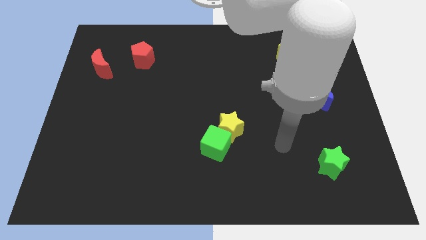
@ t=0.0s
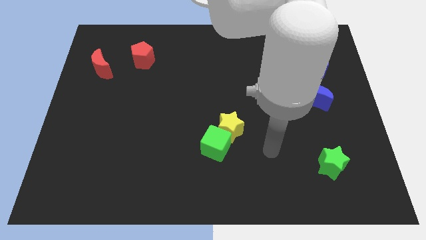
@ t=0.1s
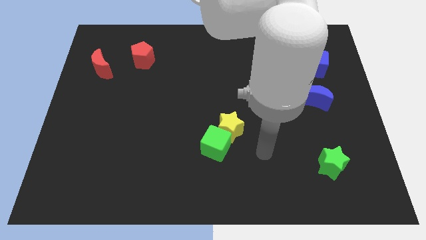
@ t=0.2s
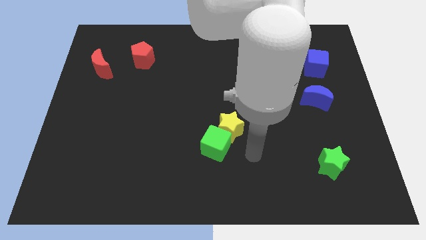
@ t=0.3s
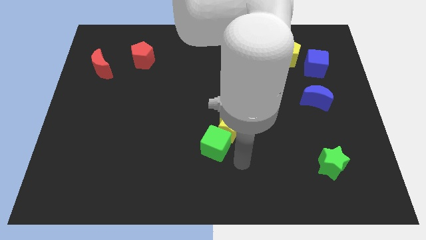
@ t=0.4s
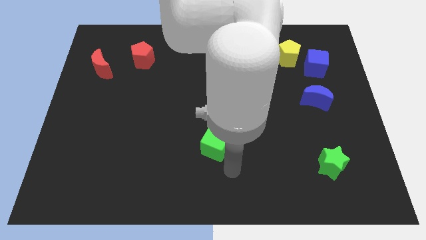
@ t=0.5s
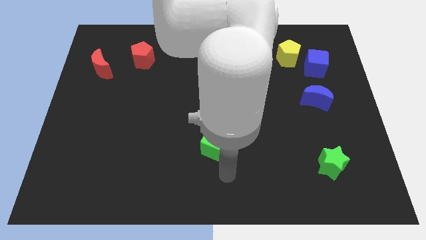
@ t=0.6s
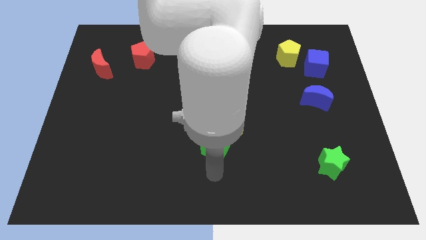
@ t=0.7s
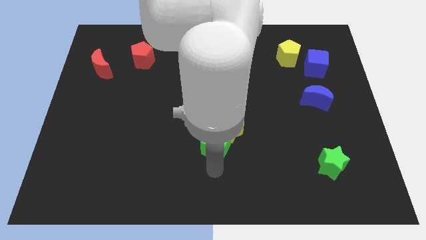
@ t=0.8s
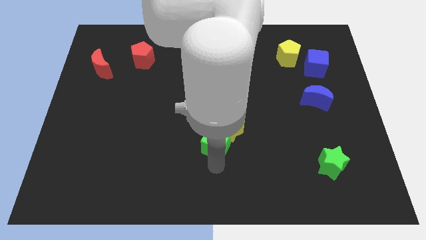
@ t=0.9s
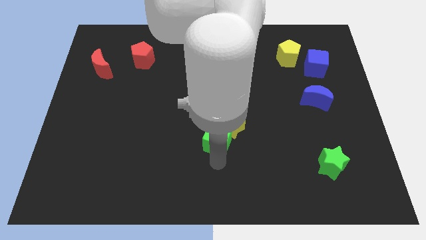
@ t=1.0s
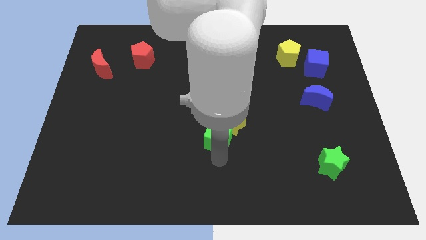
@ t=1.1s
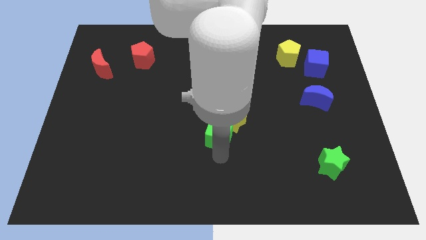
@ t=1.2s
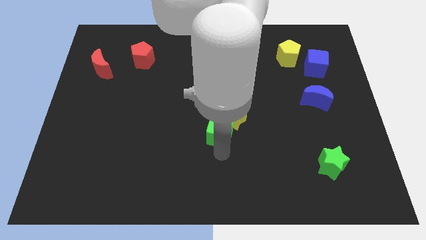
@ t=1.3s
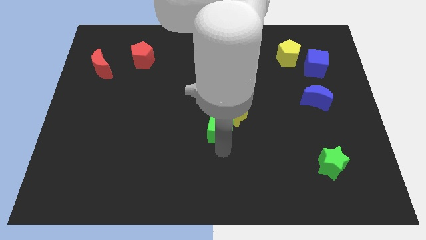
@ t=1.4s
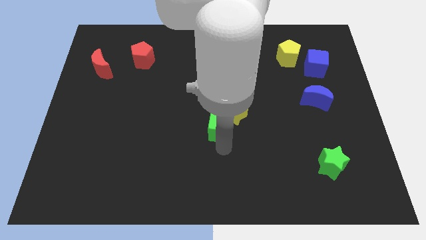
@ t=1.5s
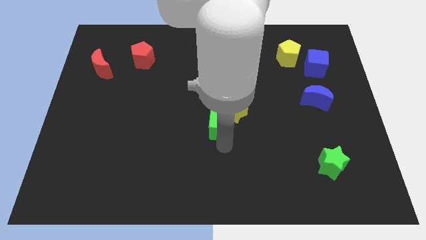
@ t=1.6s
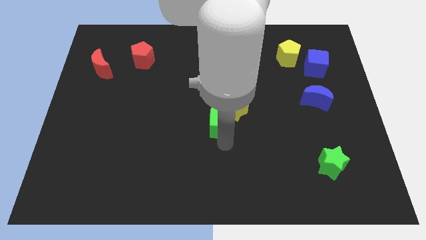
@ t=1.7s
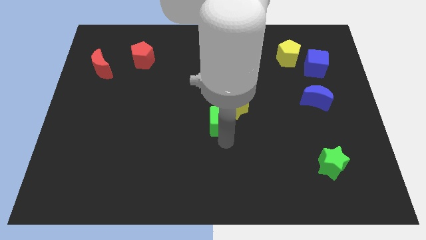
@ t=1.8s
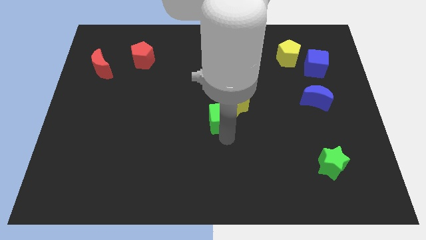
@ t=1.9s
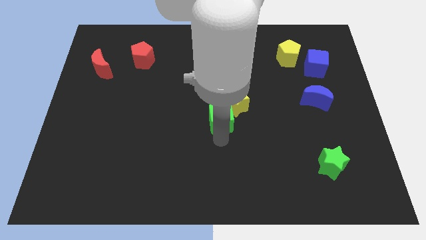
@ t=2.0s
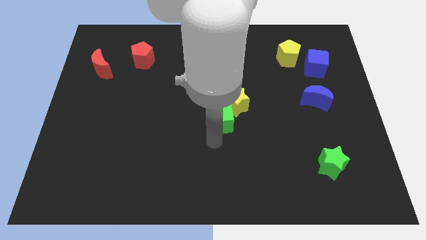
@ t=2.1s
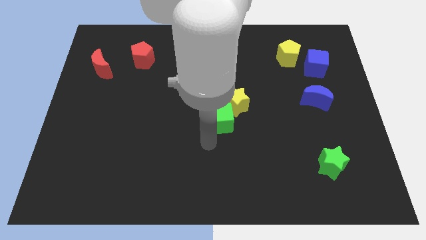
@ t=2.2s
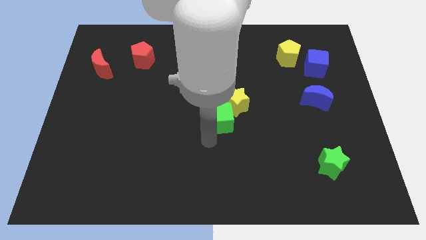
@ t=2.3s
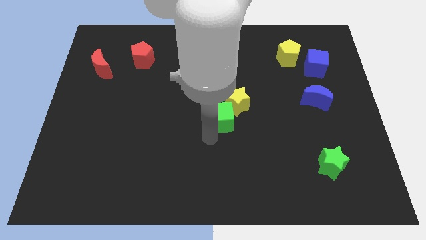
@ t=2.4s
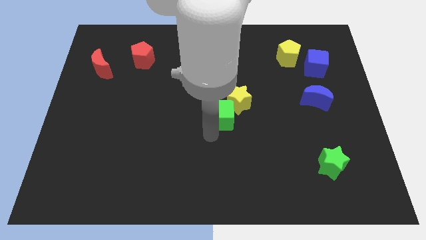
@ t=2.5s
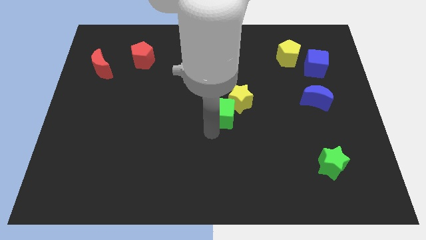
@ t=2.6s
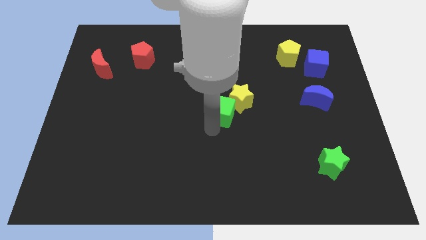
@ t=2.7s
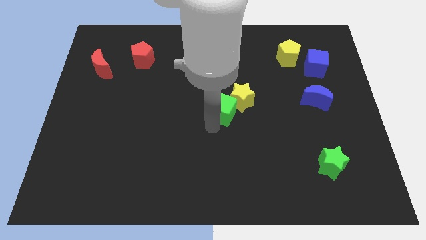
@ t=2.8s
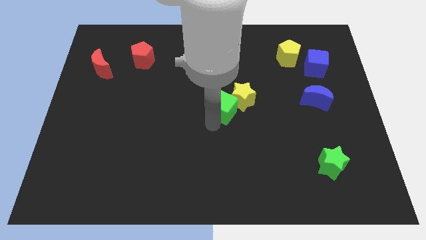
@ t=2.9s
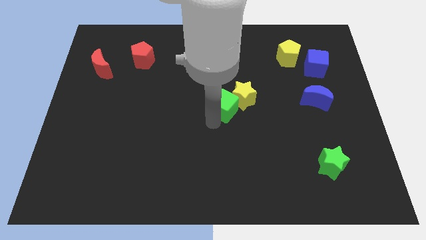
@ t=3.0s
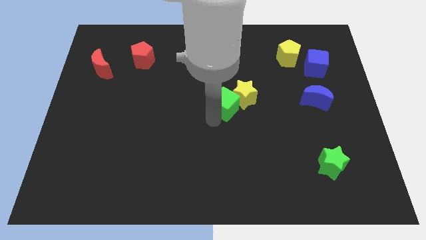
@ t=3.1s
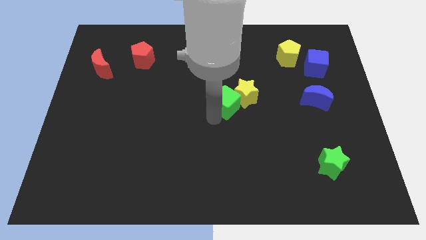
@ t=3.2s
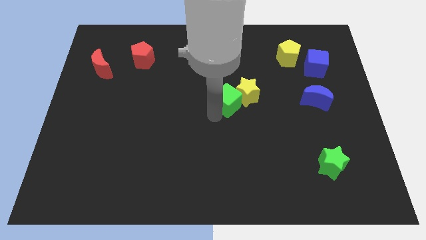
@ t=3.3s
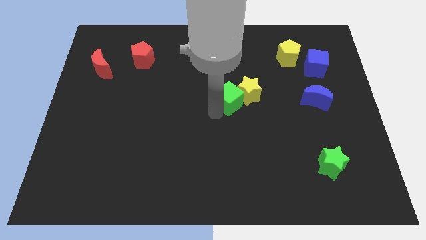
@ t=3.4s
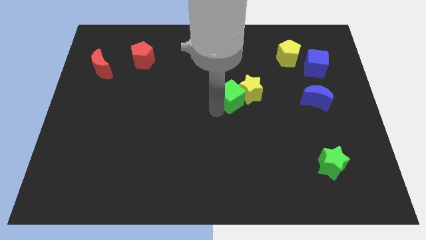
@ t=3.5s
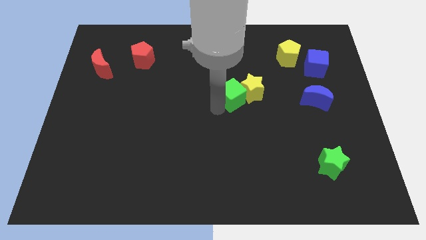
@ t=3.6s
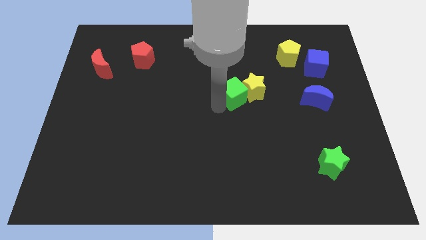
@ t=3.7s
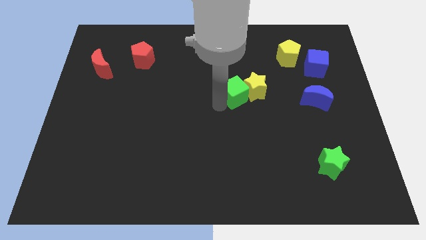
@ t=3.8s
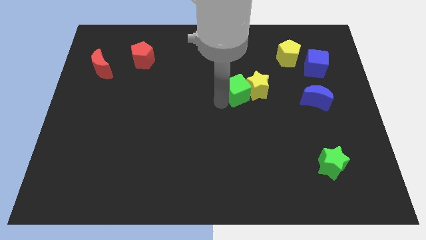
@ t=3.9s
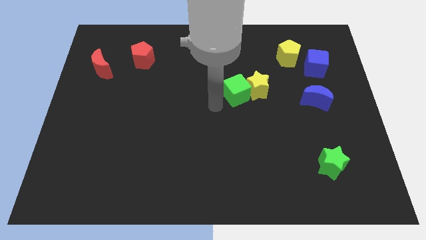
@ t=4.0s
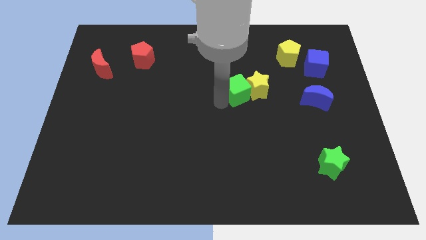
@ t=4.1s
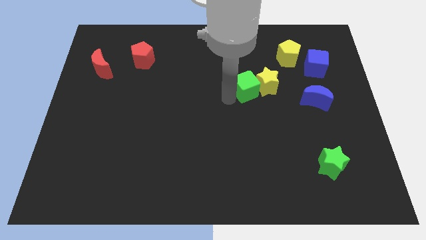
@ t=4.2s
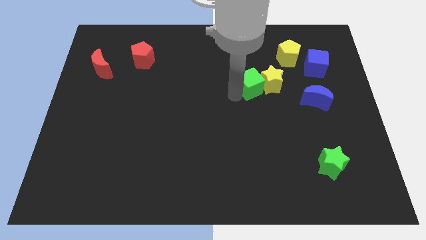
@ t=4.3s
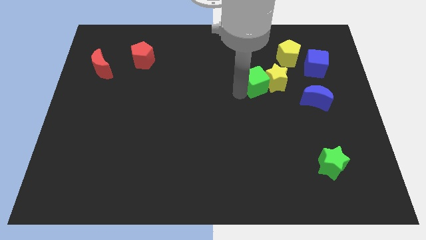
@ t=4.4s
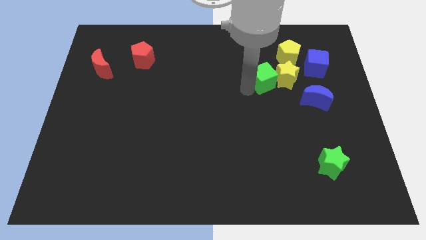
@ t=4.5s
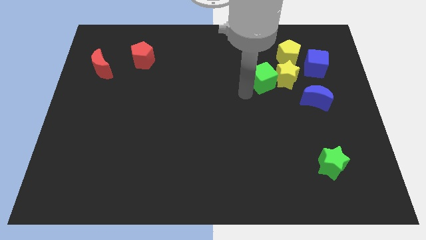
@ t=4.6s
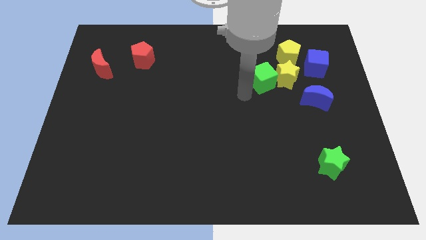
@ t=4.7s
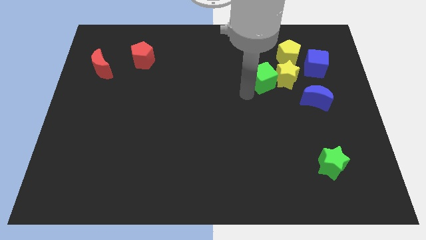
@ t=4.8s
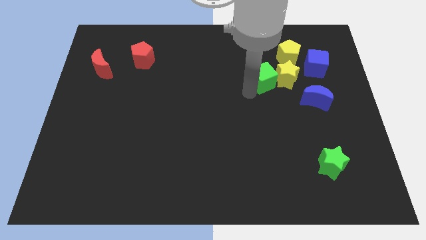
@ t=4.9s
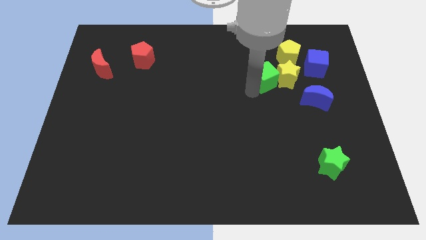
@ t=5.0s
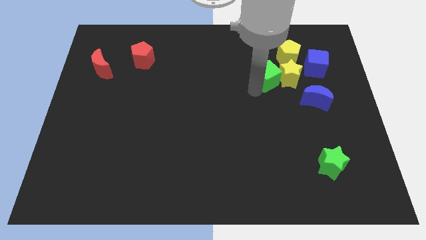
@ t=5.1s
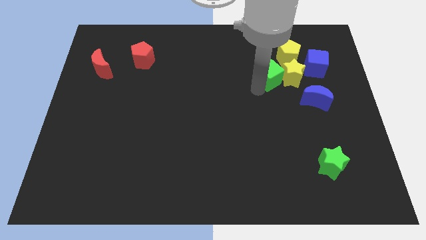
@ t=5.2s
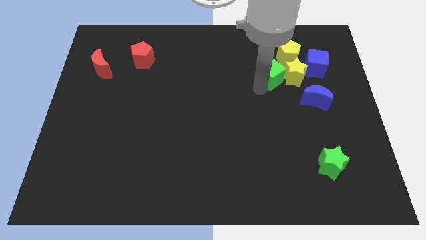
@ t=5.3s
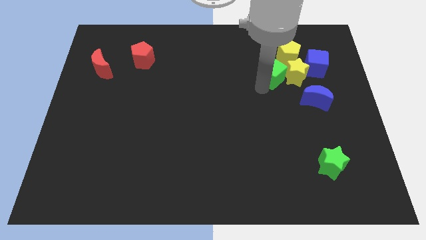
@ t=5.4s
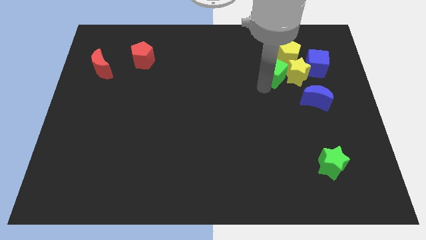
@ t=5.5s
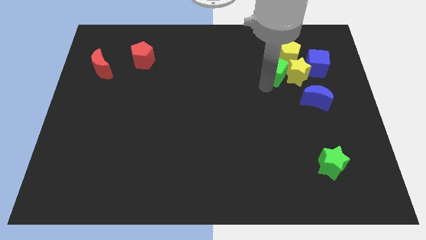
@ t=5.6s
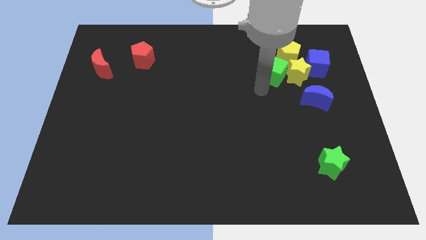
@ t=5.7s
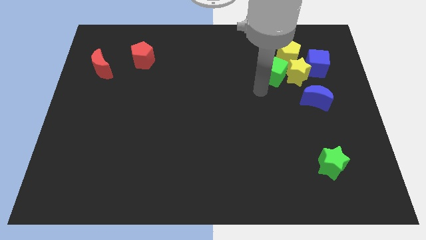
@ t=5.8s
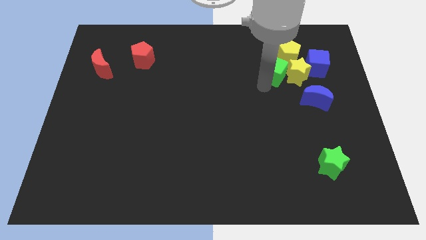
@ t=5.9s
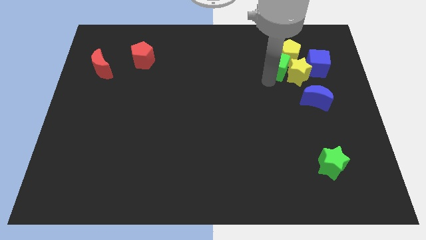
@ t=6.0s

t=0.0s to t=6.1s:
put the green cube towards the yellow pentagon

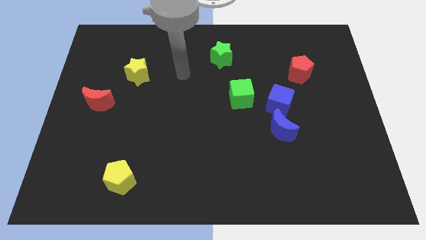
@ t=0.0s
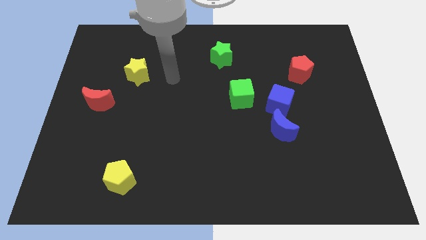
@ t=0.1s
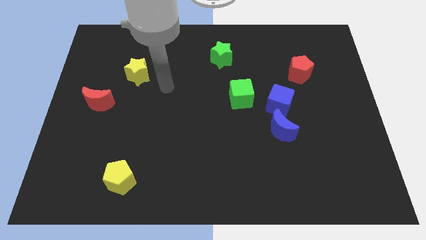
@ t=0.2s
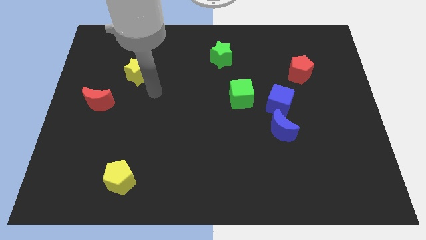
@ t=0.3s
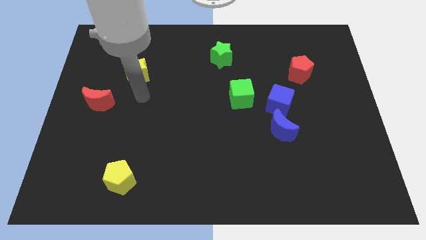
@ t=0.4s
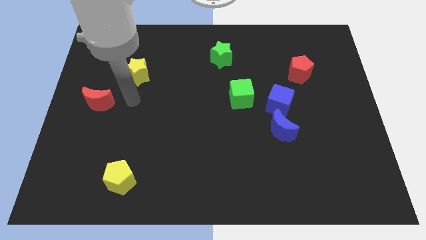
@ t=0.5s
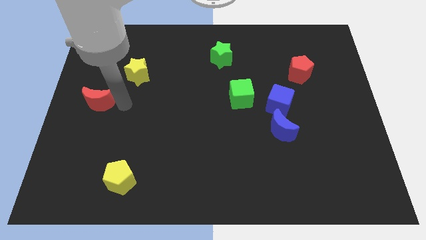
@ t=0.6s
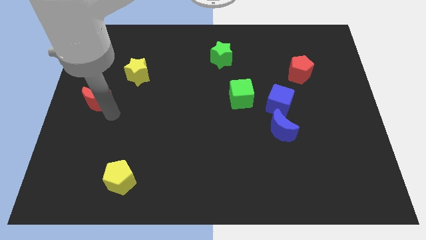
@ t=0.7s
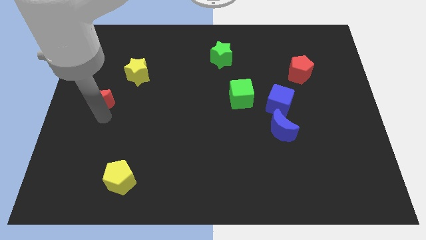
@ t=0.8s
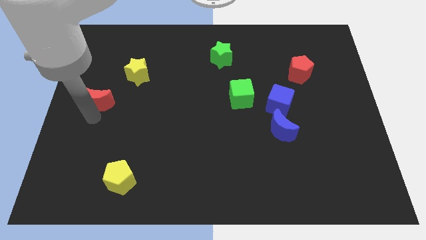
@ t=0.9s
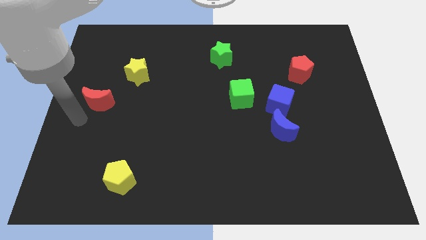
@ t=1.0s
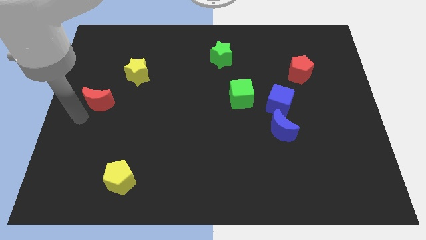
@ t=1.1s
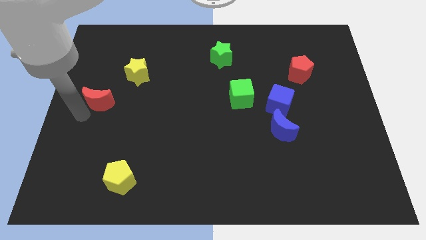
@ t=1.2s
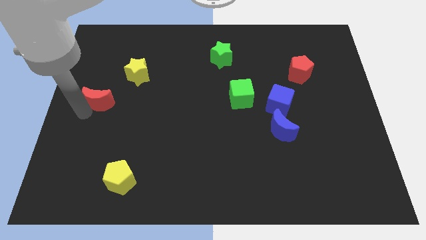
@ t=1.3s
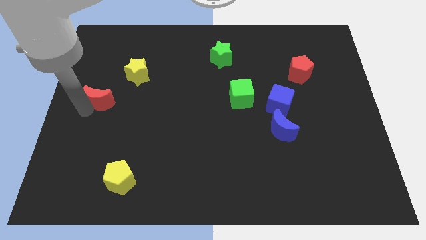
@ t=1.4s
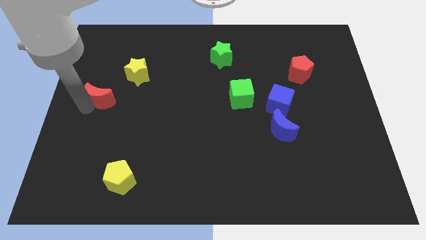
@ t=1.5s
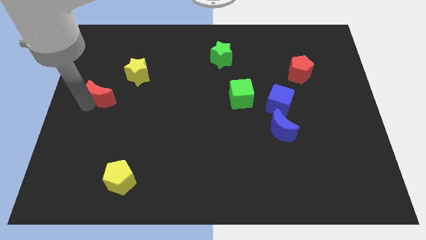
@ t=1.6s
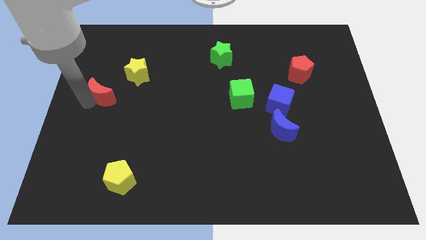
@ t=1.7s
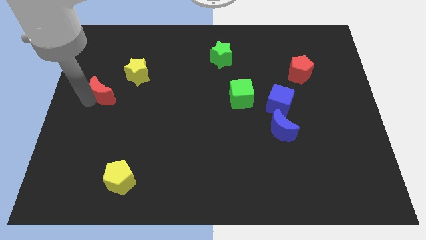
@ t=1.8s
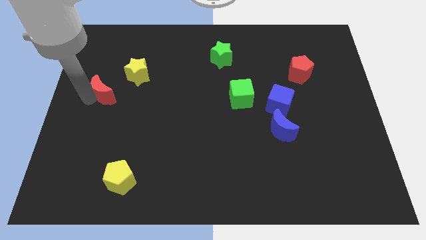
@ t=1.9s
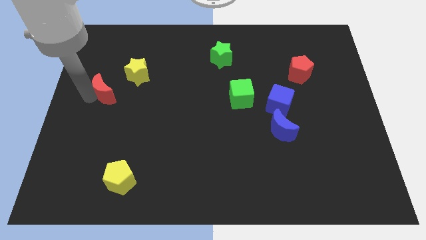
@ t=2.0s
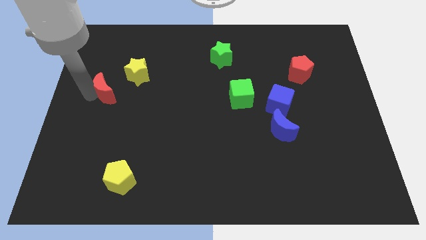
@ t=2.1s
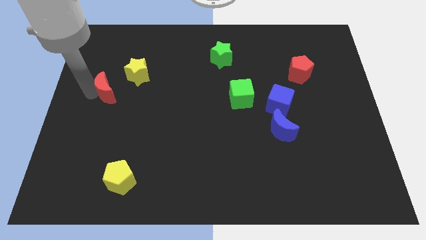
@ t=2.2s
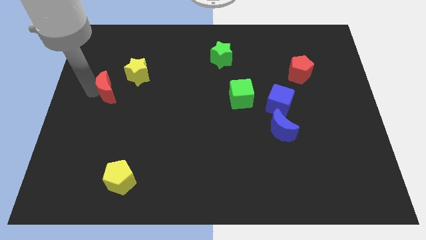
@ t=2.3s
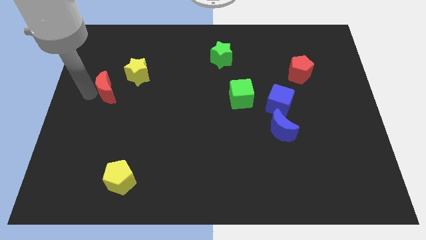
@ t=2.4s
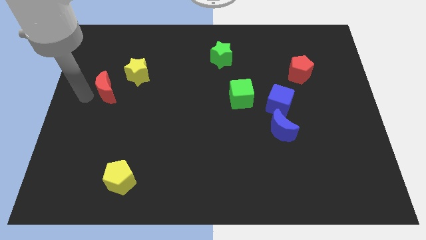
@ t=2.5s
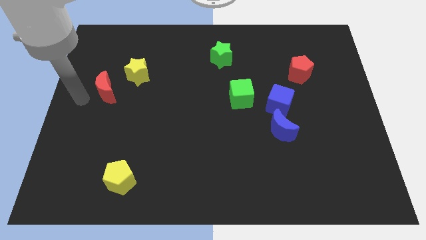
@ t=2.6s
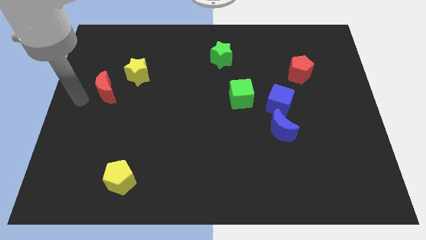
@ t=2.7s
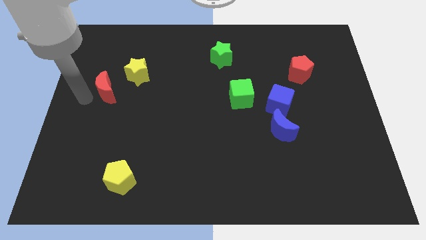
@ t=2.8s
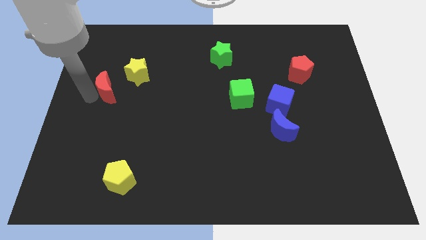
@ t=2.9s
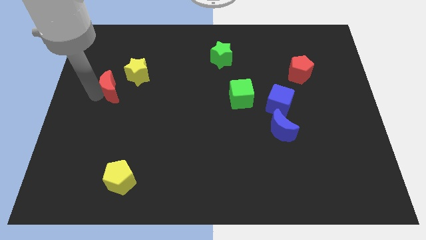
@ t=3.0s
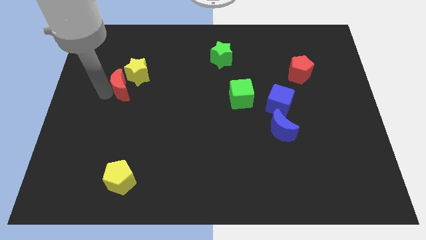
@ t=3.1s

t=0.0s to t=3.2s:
push the red moon towards the yellow star
